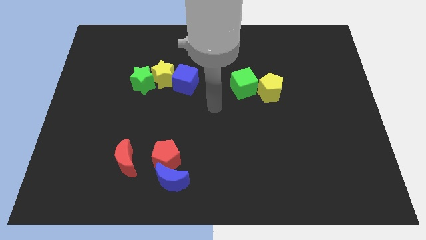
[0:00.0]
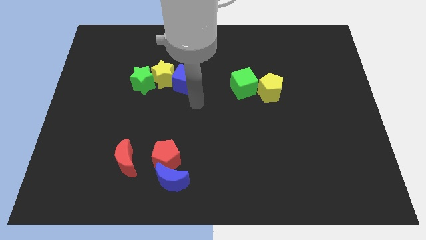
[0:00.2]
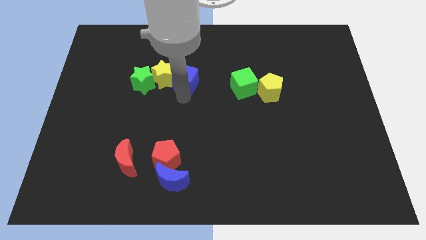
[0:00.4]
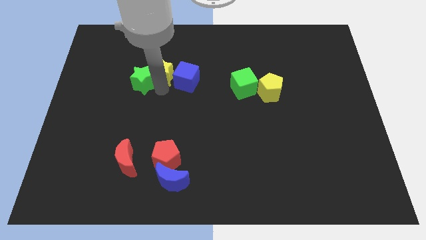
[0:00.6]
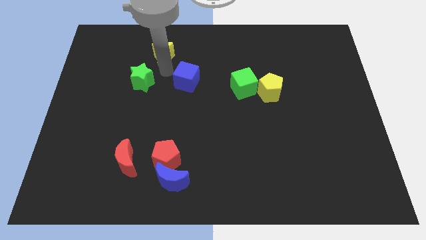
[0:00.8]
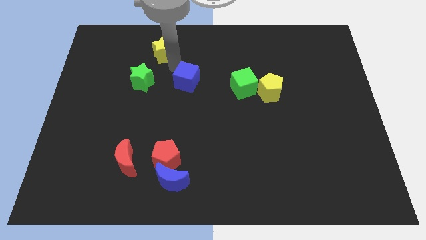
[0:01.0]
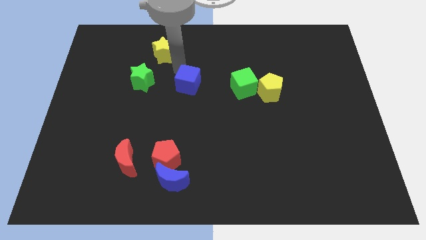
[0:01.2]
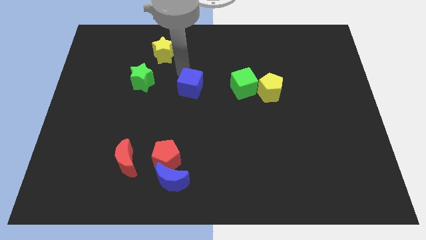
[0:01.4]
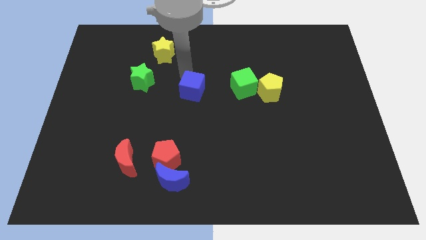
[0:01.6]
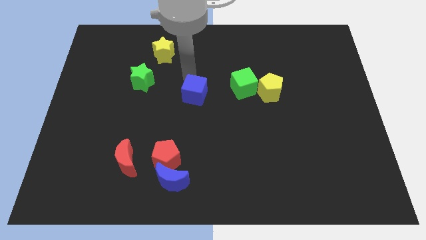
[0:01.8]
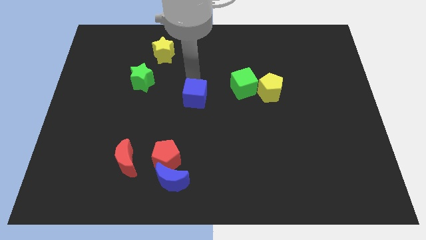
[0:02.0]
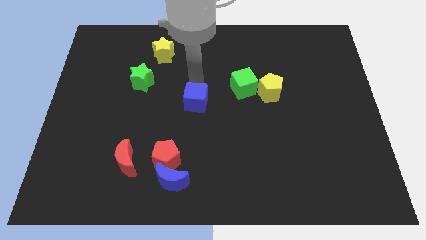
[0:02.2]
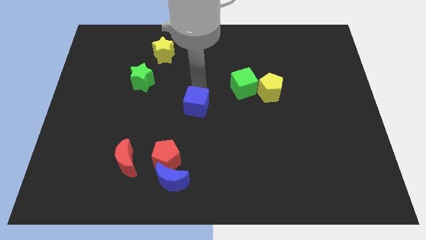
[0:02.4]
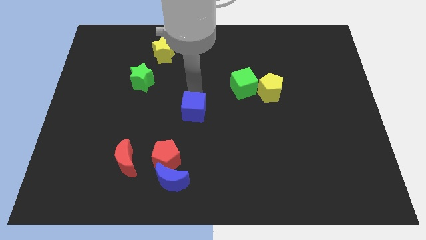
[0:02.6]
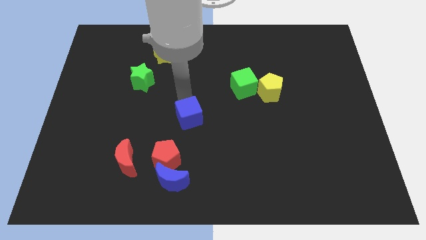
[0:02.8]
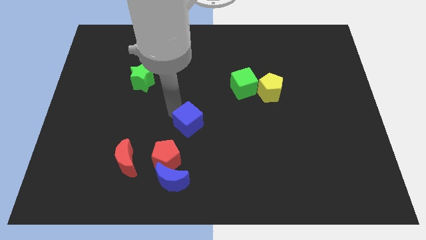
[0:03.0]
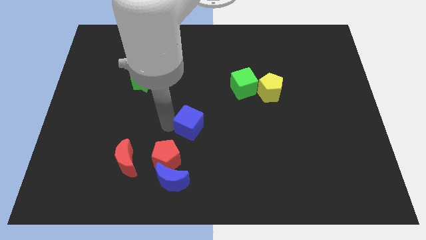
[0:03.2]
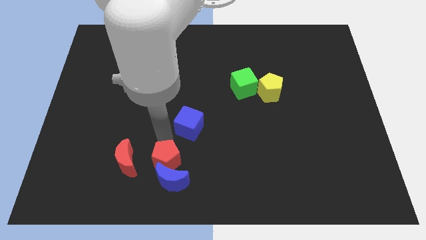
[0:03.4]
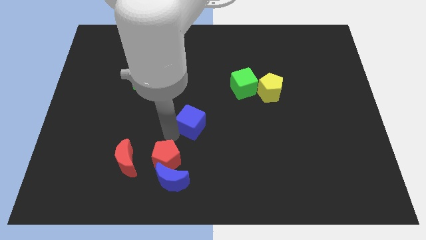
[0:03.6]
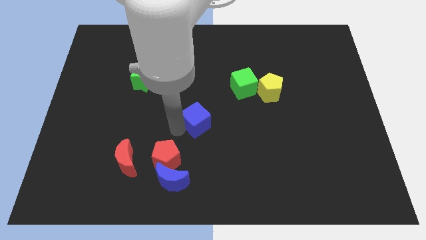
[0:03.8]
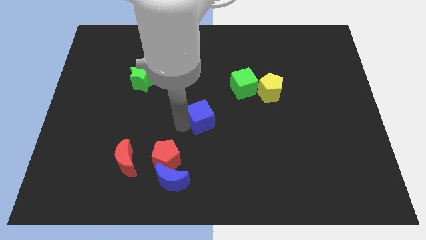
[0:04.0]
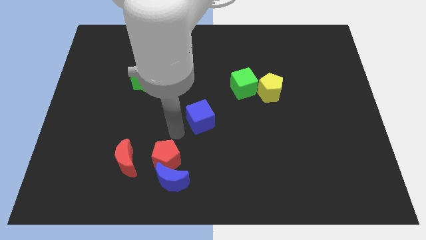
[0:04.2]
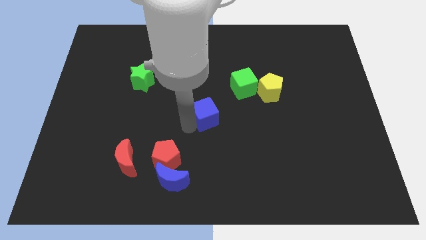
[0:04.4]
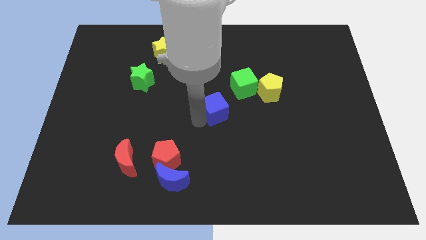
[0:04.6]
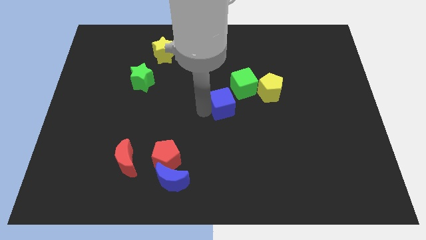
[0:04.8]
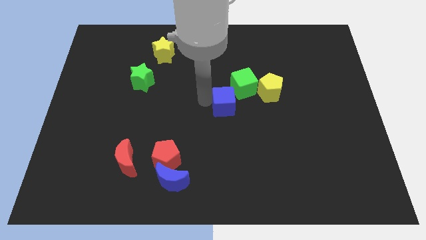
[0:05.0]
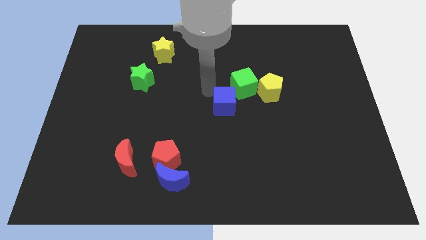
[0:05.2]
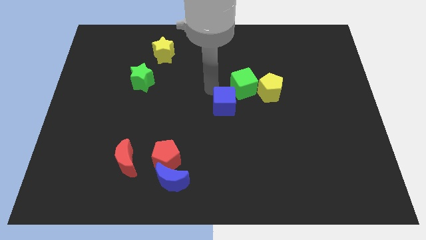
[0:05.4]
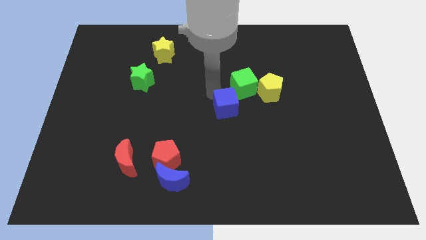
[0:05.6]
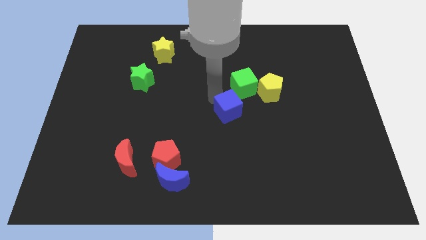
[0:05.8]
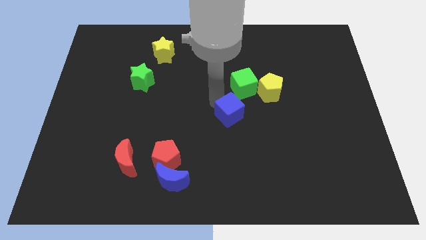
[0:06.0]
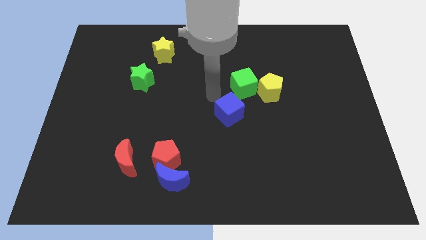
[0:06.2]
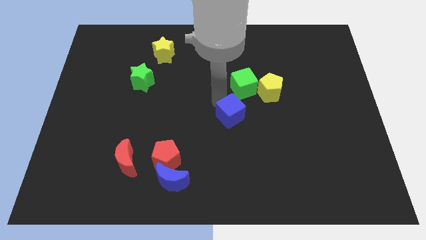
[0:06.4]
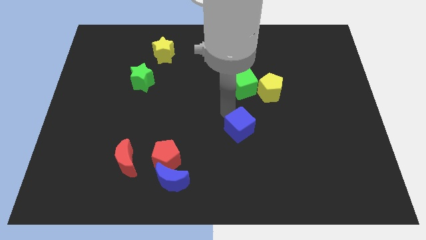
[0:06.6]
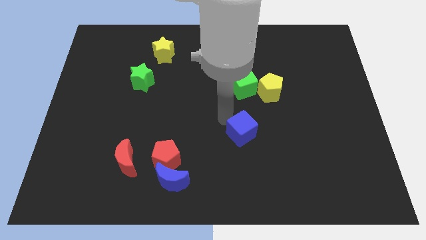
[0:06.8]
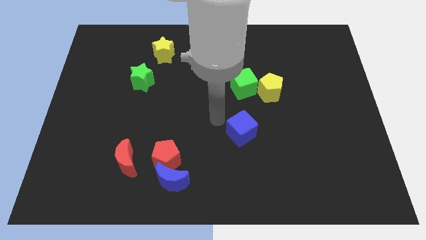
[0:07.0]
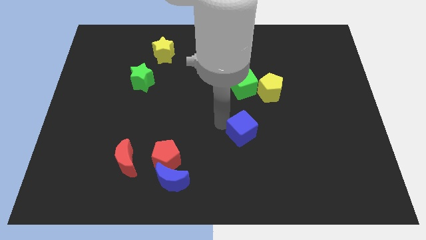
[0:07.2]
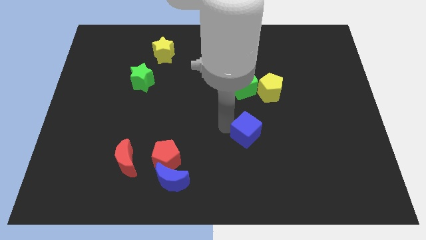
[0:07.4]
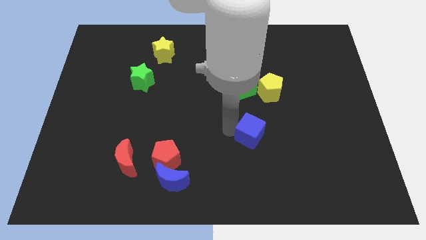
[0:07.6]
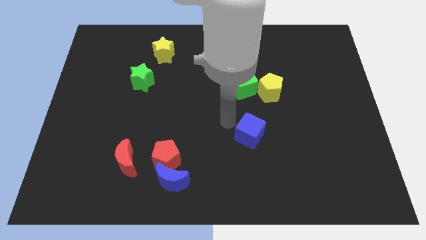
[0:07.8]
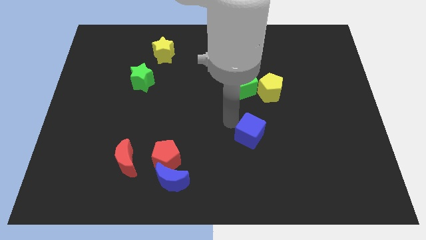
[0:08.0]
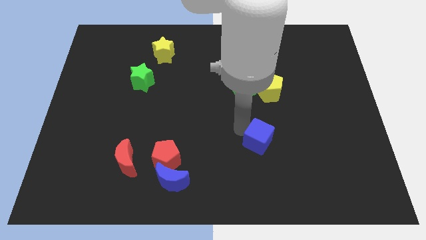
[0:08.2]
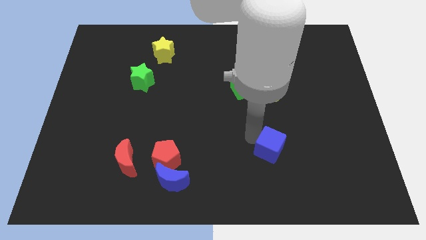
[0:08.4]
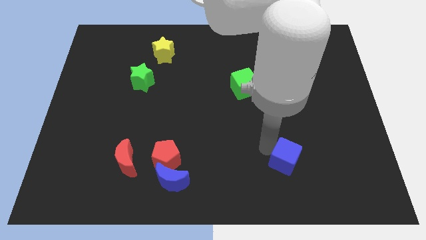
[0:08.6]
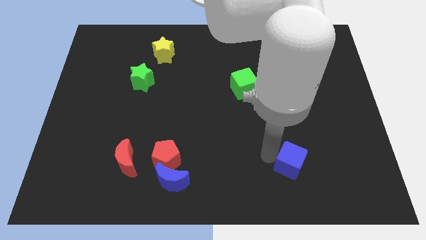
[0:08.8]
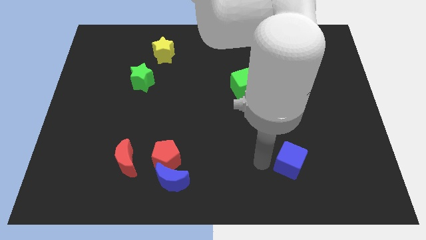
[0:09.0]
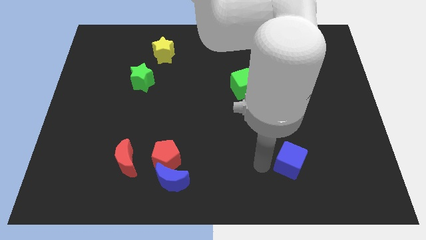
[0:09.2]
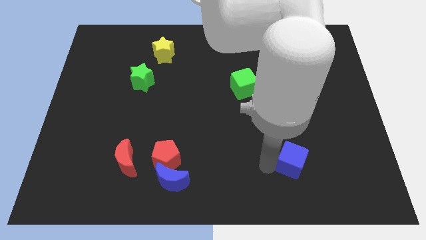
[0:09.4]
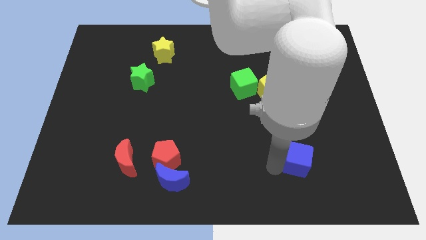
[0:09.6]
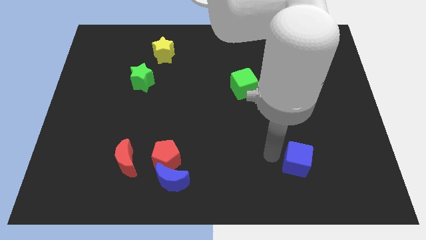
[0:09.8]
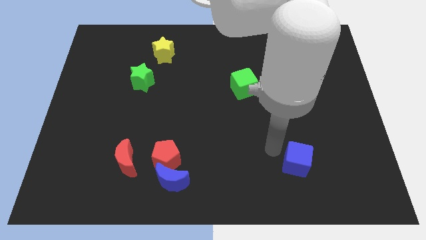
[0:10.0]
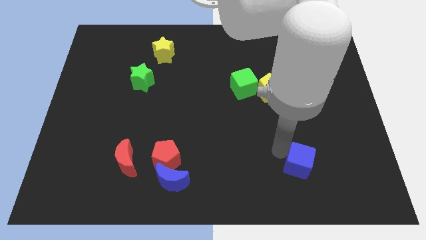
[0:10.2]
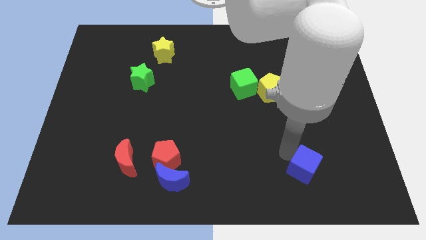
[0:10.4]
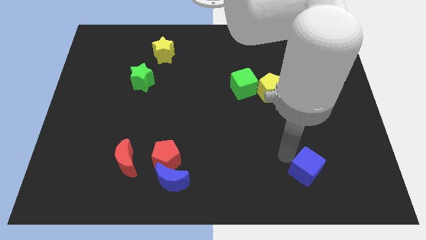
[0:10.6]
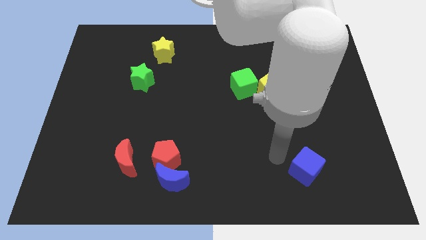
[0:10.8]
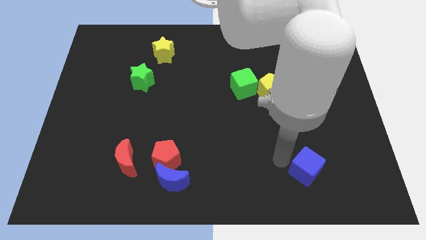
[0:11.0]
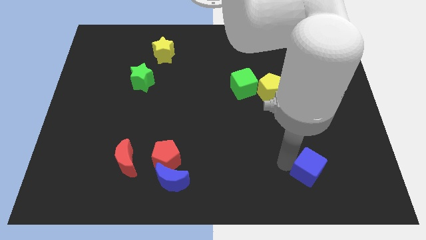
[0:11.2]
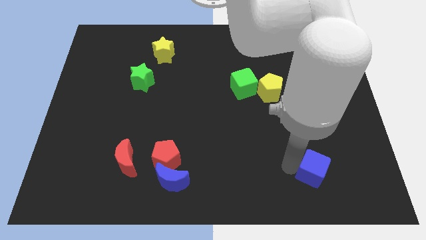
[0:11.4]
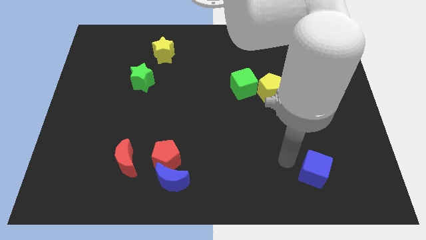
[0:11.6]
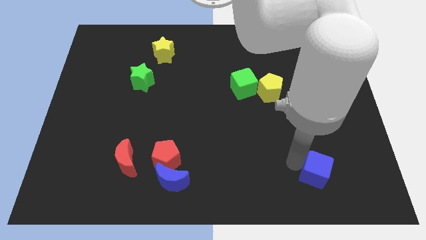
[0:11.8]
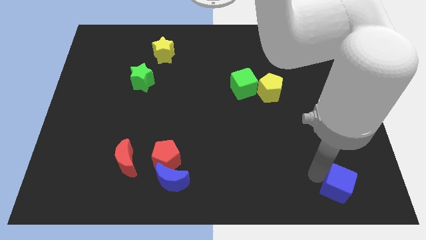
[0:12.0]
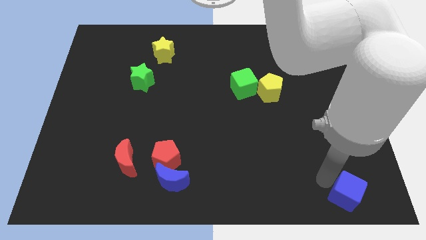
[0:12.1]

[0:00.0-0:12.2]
slide the blue cube to the lower right corner
